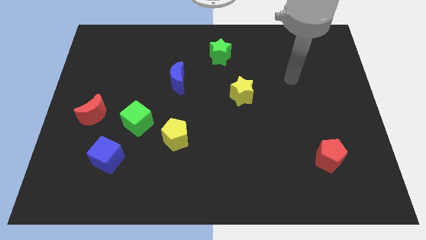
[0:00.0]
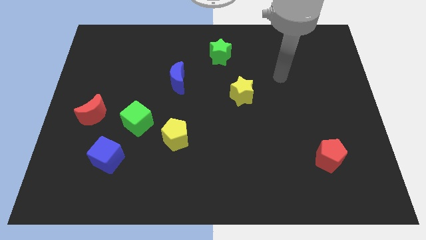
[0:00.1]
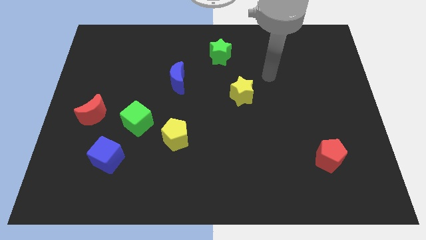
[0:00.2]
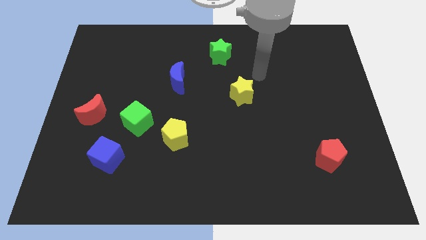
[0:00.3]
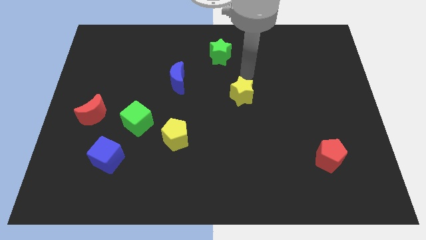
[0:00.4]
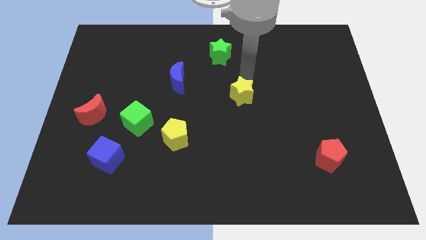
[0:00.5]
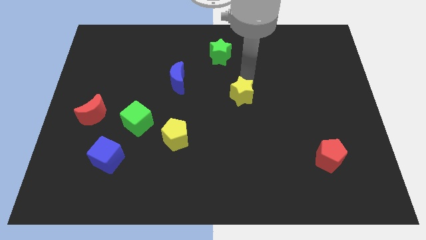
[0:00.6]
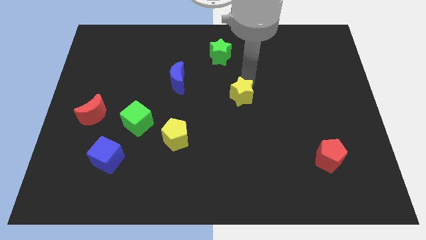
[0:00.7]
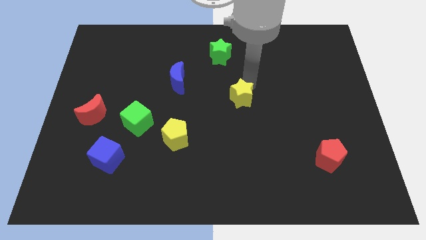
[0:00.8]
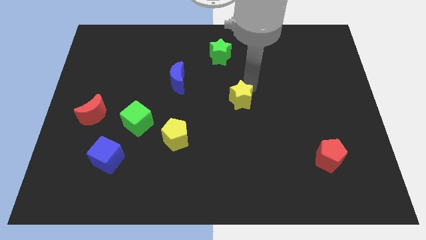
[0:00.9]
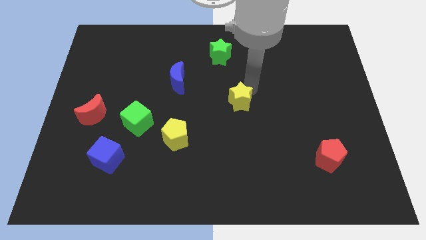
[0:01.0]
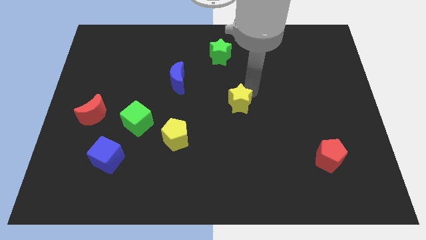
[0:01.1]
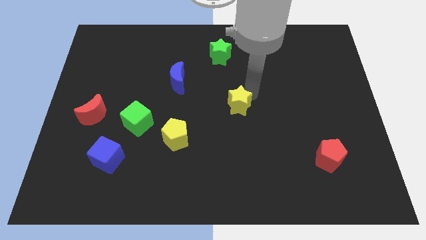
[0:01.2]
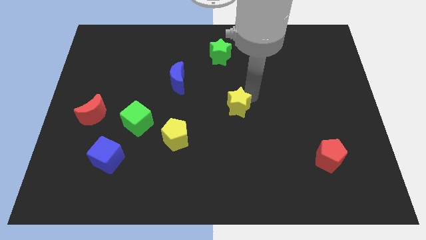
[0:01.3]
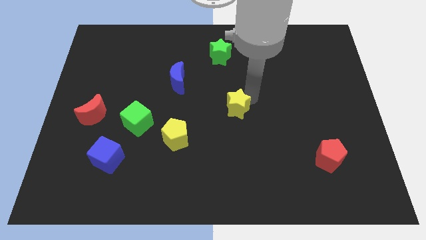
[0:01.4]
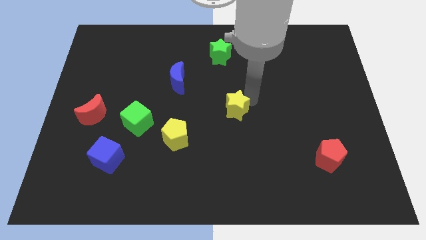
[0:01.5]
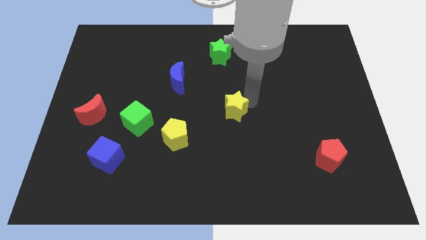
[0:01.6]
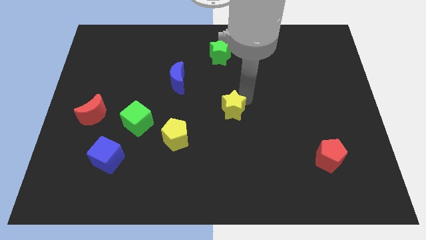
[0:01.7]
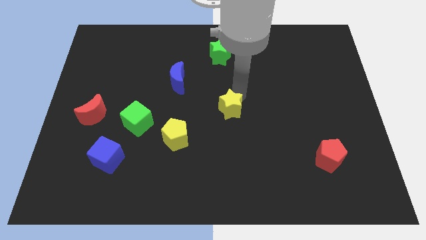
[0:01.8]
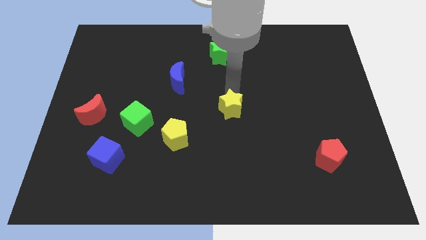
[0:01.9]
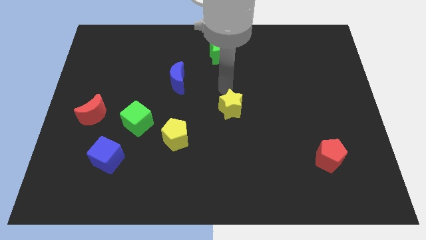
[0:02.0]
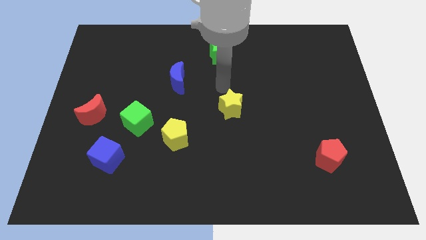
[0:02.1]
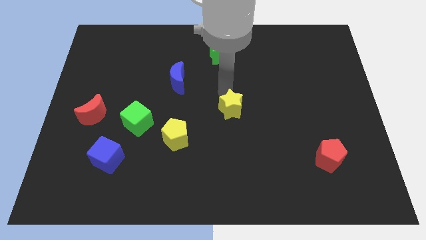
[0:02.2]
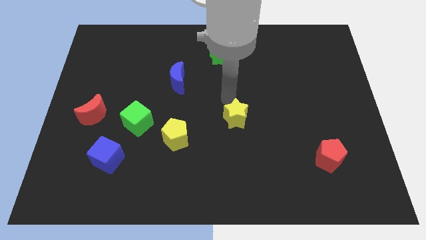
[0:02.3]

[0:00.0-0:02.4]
slide the yellow star downwards a bit

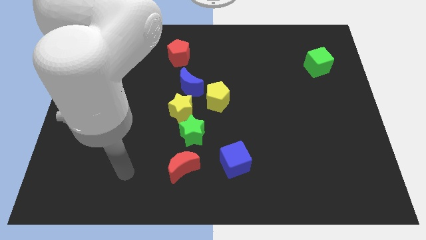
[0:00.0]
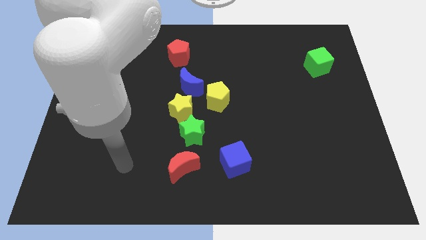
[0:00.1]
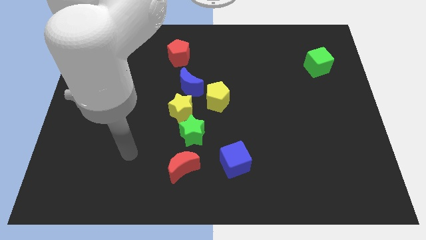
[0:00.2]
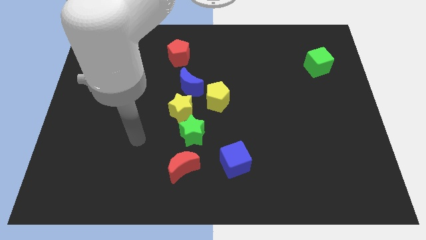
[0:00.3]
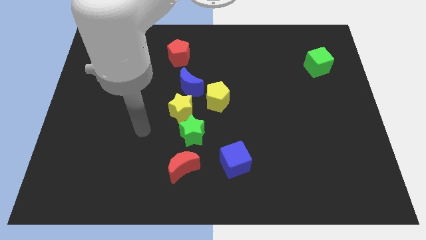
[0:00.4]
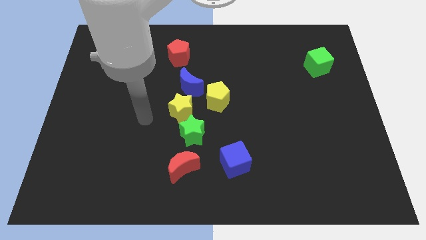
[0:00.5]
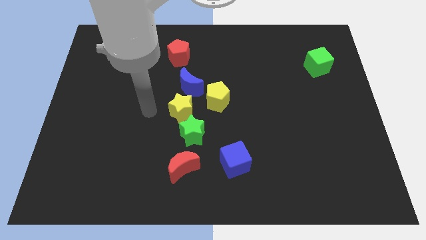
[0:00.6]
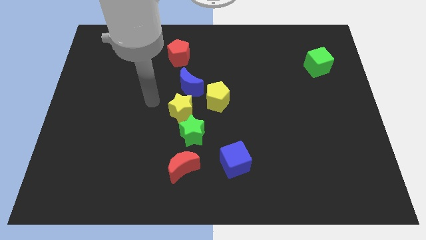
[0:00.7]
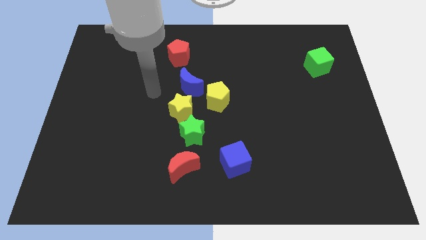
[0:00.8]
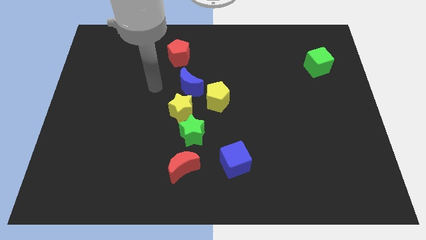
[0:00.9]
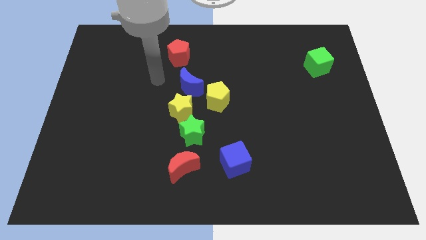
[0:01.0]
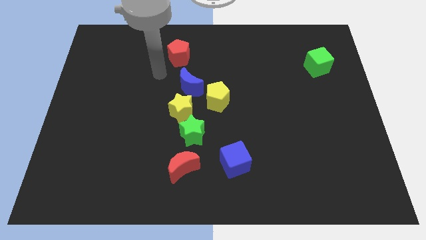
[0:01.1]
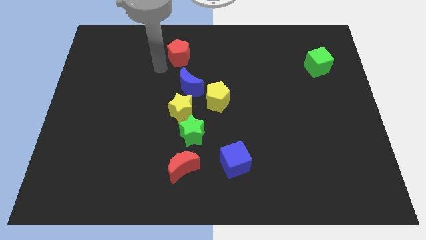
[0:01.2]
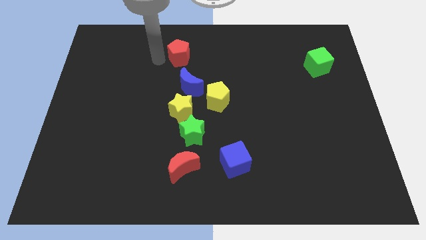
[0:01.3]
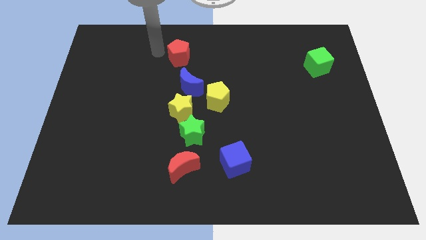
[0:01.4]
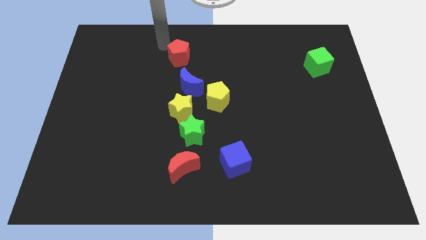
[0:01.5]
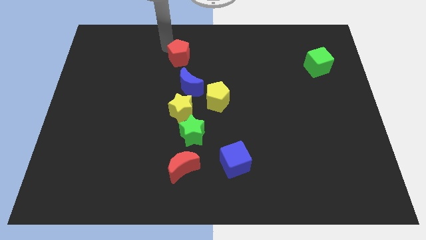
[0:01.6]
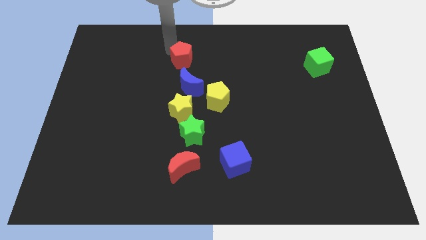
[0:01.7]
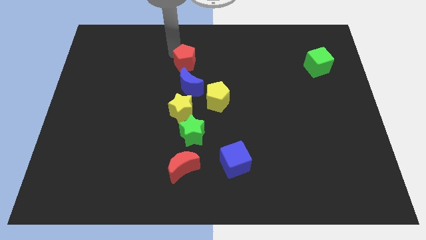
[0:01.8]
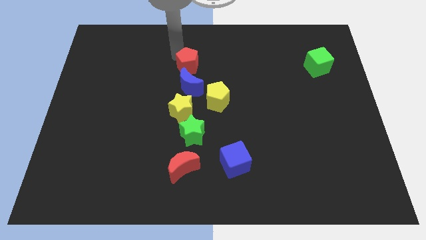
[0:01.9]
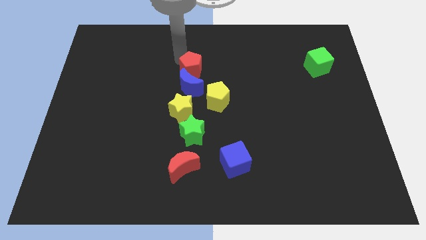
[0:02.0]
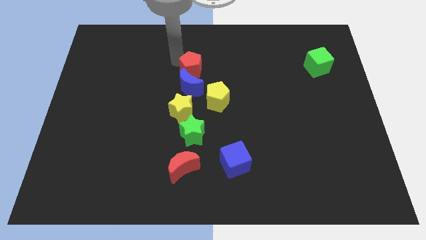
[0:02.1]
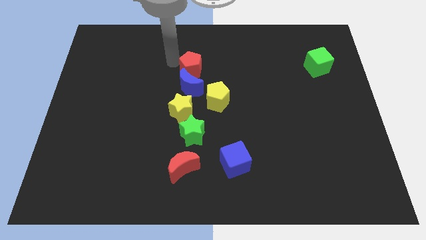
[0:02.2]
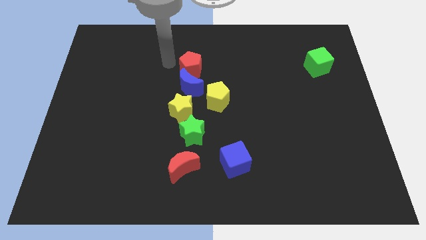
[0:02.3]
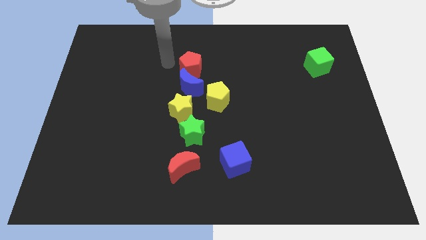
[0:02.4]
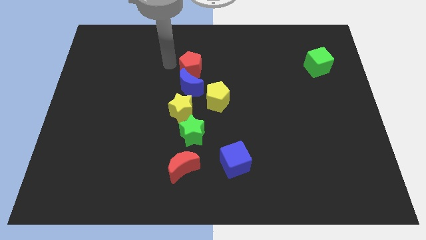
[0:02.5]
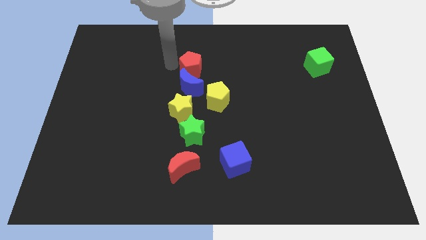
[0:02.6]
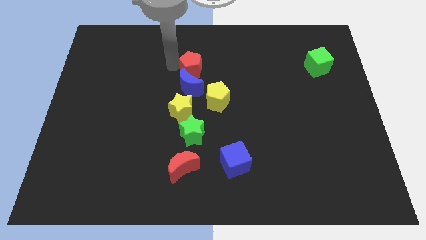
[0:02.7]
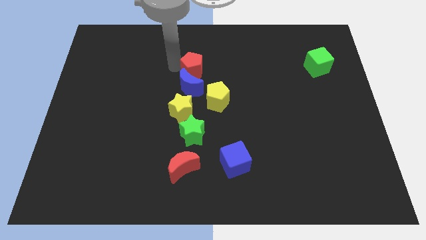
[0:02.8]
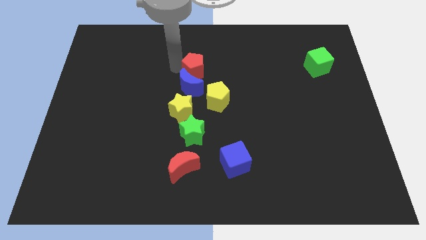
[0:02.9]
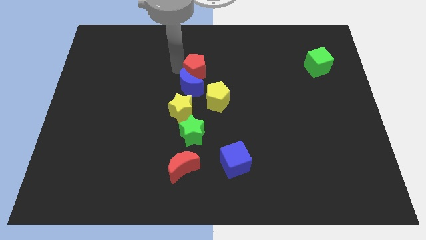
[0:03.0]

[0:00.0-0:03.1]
move the red pentagon somewhat downwards and then to the right

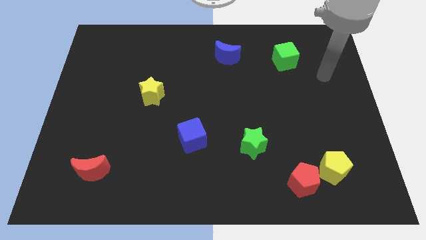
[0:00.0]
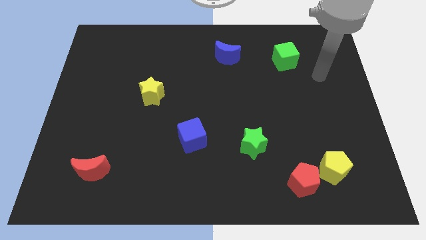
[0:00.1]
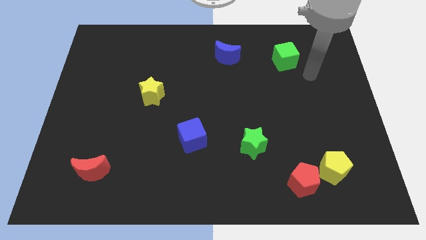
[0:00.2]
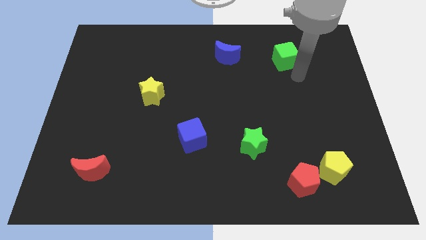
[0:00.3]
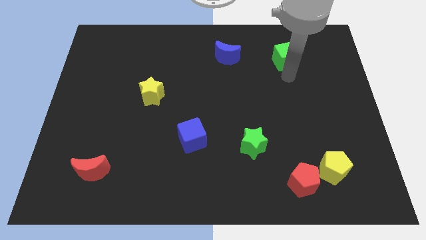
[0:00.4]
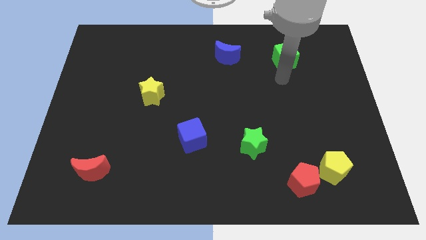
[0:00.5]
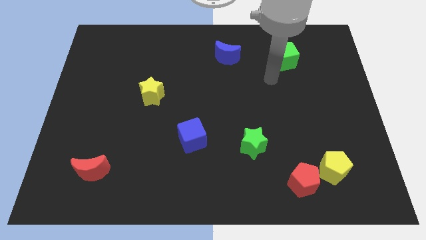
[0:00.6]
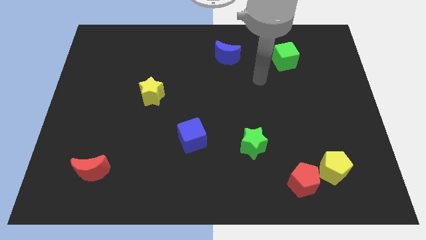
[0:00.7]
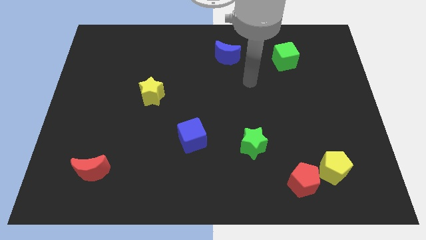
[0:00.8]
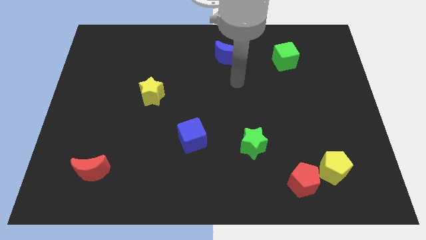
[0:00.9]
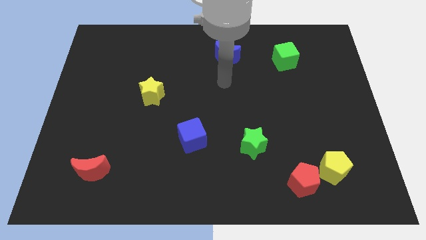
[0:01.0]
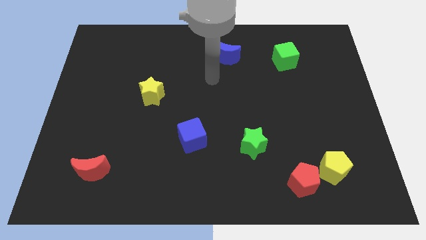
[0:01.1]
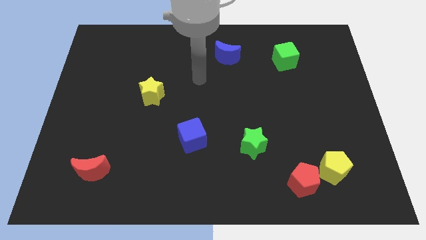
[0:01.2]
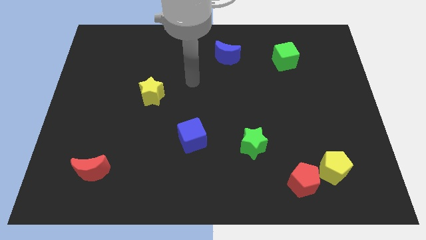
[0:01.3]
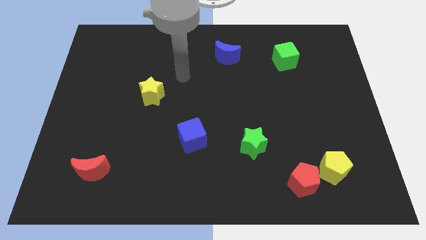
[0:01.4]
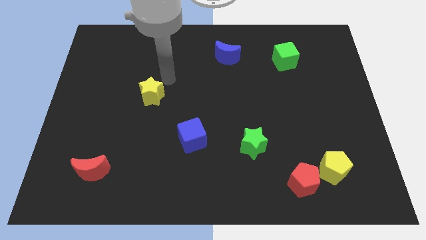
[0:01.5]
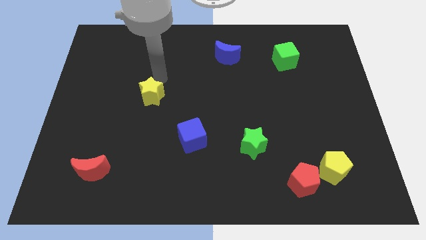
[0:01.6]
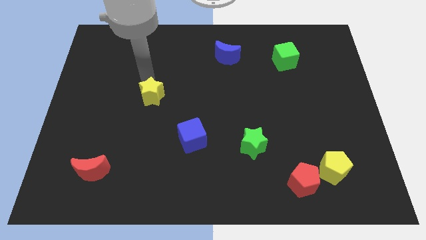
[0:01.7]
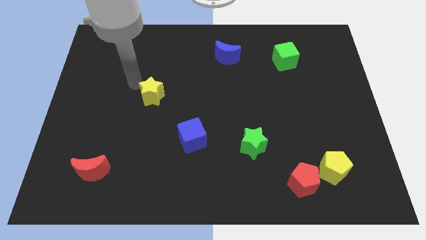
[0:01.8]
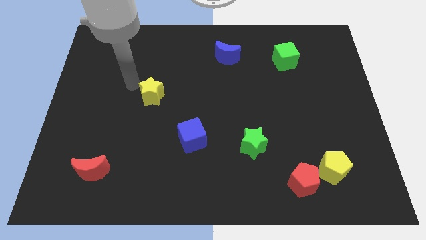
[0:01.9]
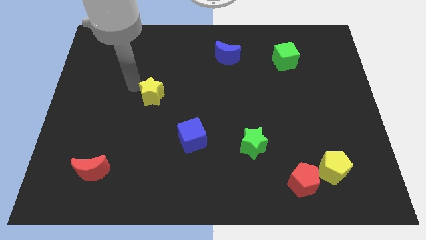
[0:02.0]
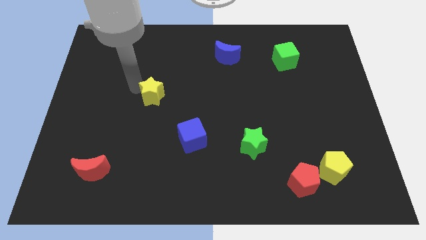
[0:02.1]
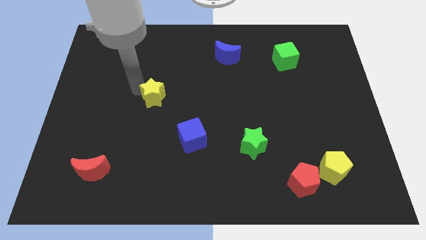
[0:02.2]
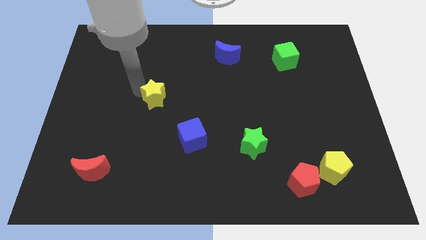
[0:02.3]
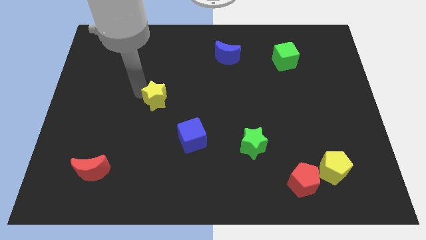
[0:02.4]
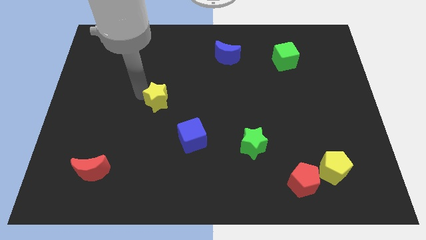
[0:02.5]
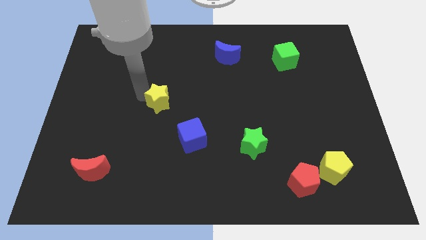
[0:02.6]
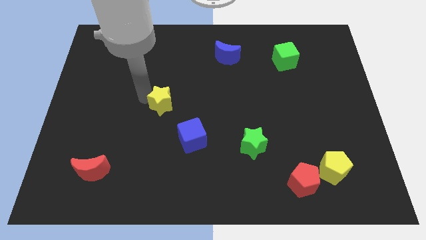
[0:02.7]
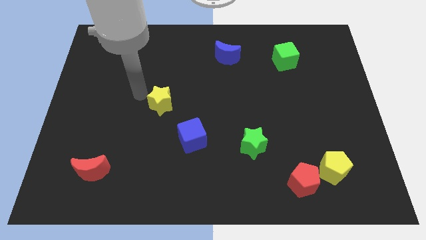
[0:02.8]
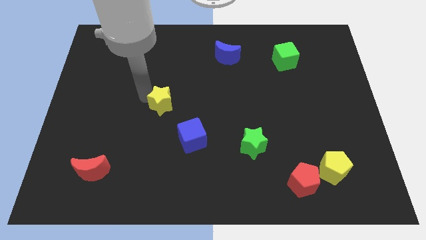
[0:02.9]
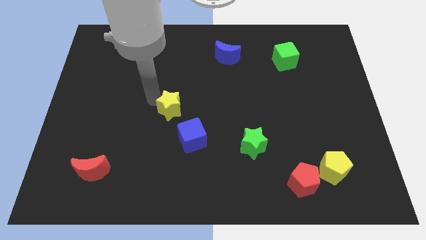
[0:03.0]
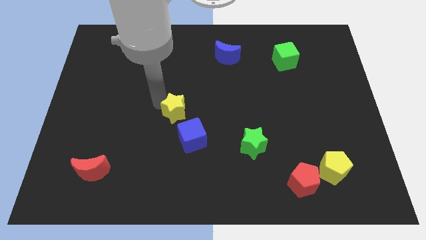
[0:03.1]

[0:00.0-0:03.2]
slide the yellow star downwards and then to the right a little bit
